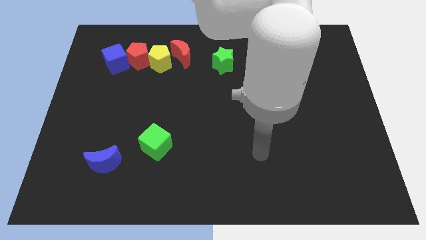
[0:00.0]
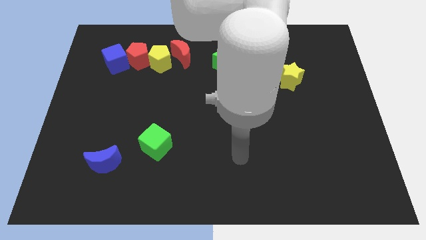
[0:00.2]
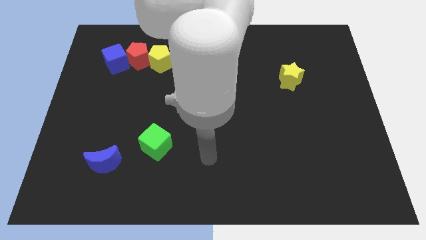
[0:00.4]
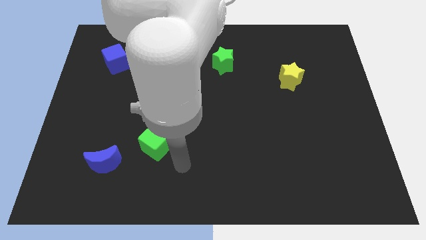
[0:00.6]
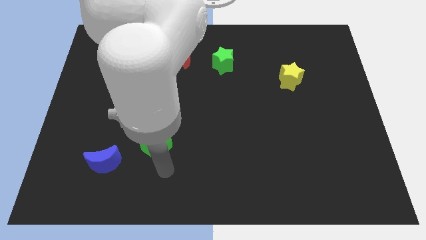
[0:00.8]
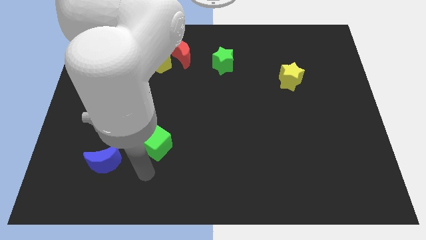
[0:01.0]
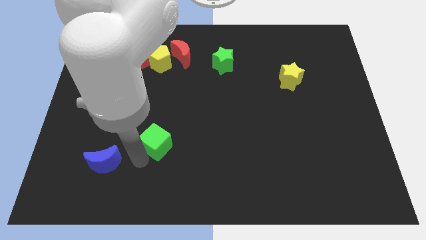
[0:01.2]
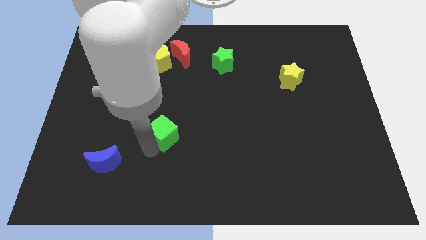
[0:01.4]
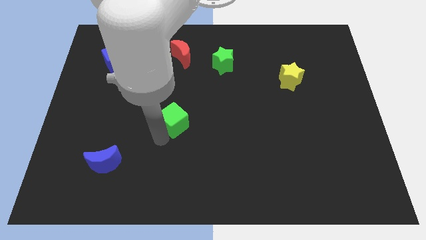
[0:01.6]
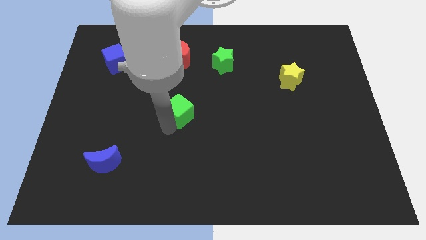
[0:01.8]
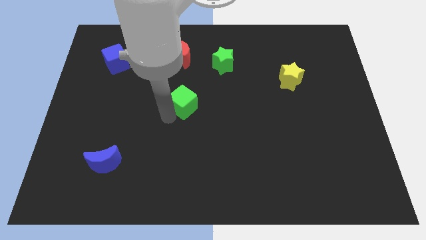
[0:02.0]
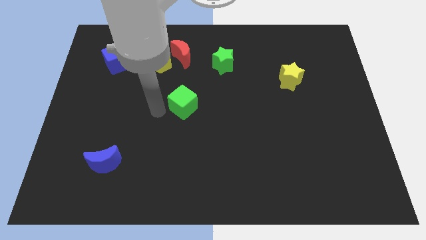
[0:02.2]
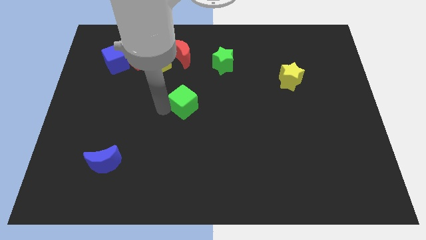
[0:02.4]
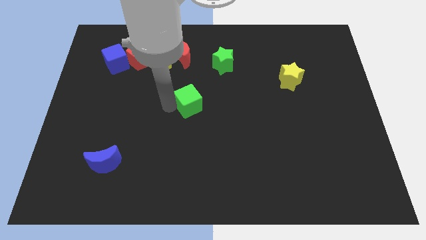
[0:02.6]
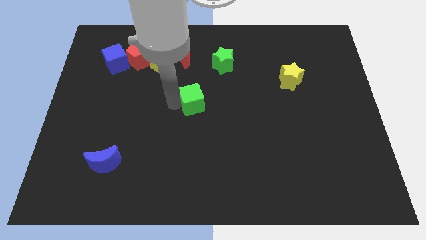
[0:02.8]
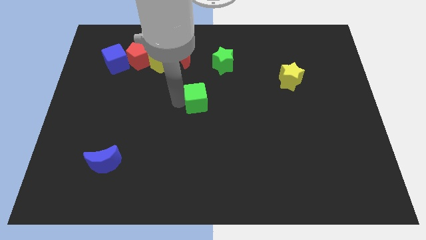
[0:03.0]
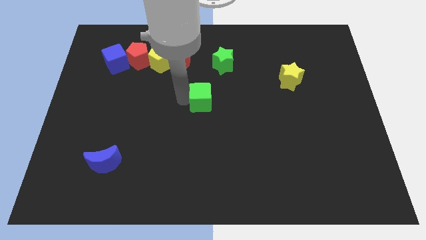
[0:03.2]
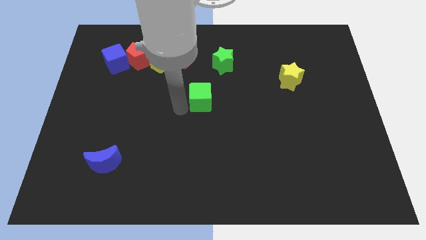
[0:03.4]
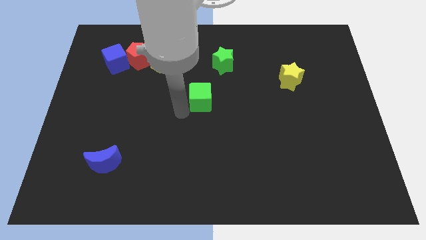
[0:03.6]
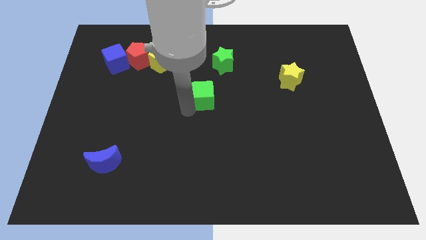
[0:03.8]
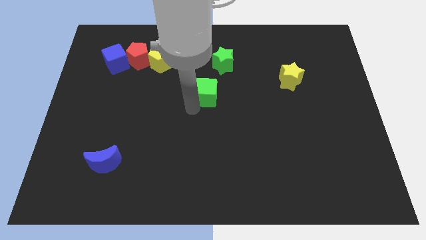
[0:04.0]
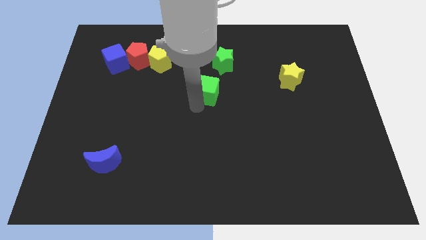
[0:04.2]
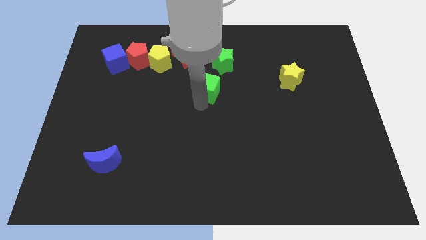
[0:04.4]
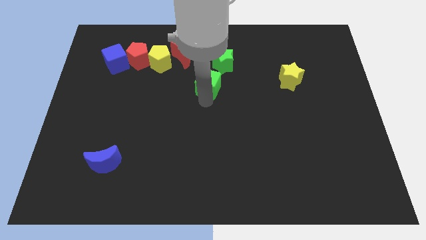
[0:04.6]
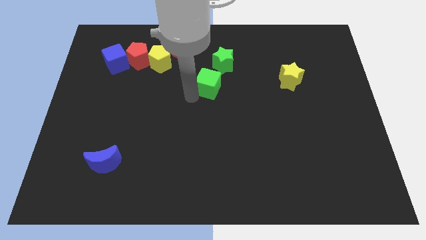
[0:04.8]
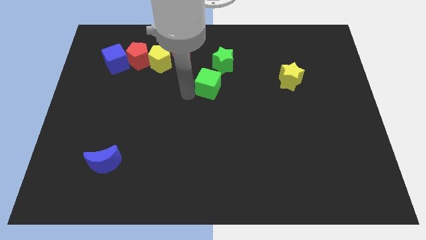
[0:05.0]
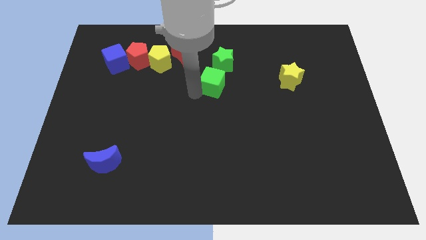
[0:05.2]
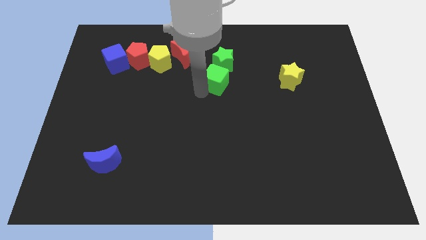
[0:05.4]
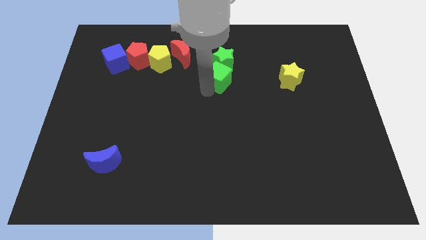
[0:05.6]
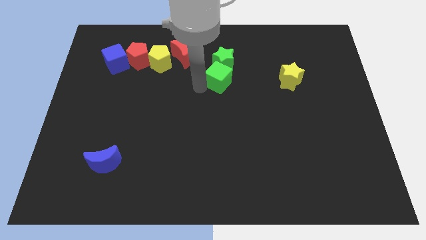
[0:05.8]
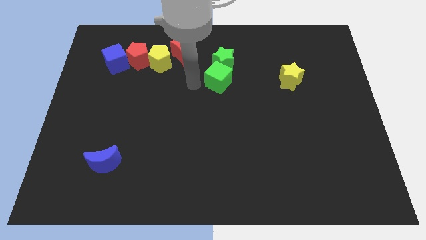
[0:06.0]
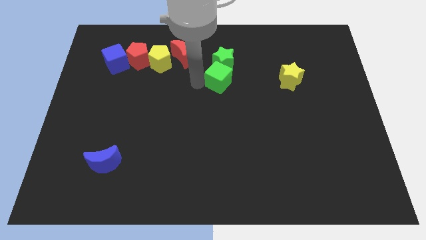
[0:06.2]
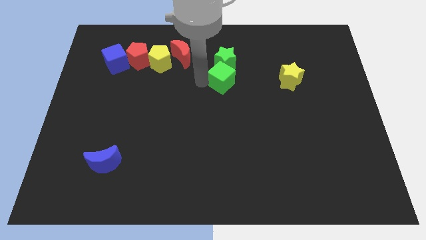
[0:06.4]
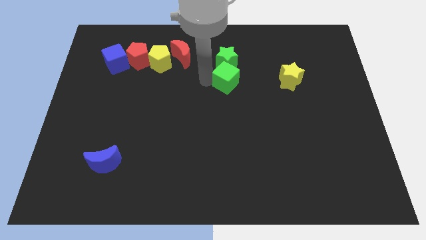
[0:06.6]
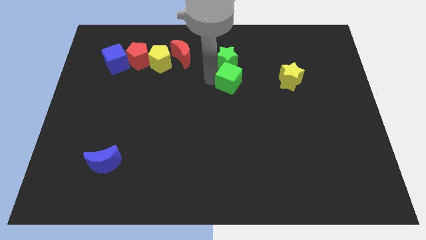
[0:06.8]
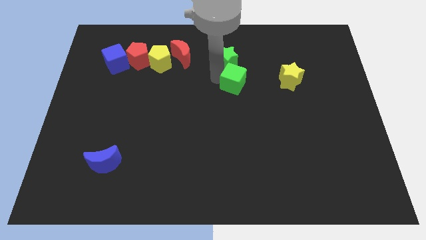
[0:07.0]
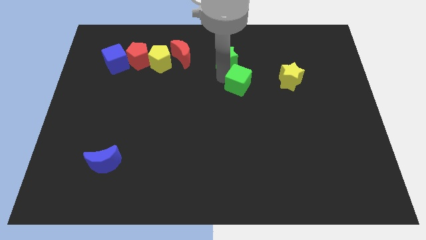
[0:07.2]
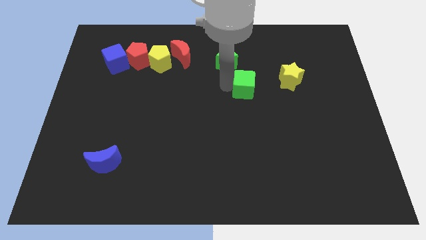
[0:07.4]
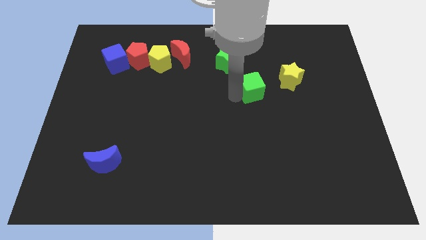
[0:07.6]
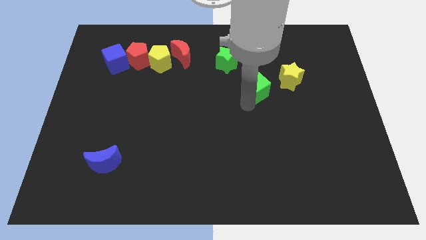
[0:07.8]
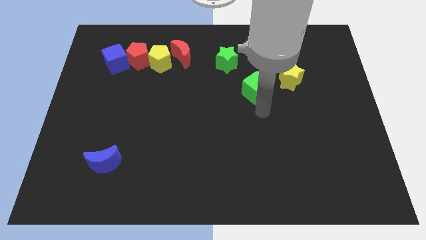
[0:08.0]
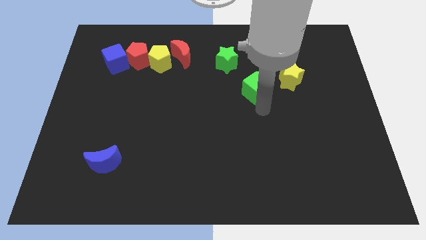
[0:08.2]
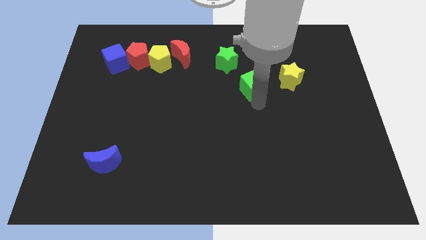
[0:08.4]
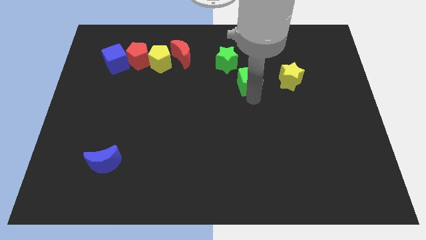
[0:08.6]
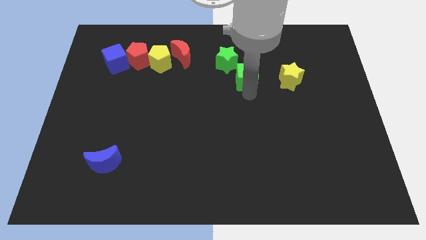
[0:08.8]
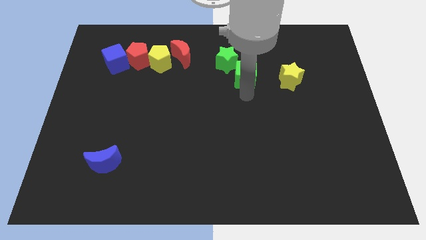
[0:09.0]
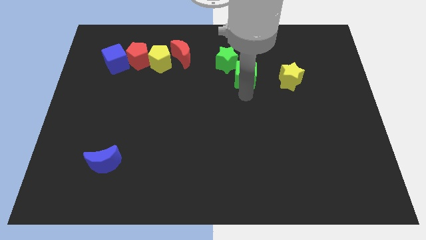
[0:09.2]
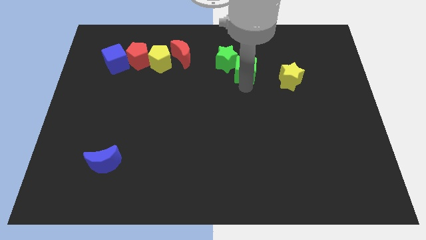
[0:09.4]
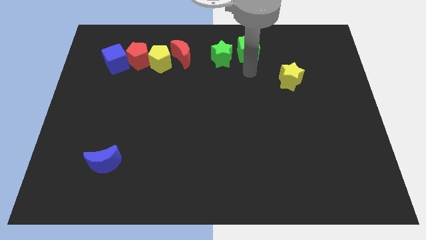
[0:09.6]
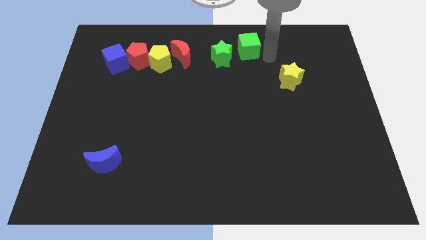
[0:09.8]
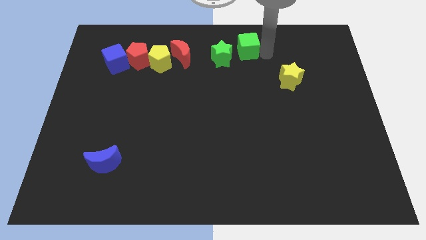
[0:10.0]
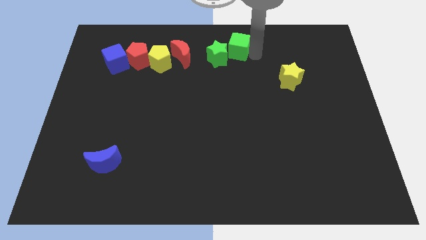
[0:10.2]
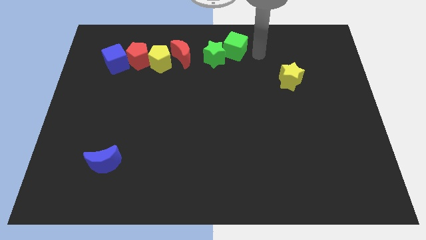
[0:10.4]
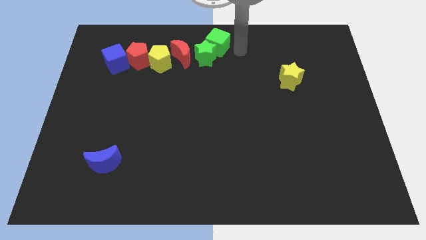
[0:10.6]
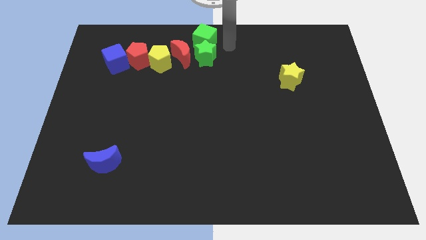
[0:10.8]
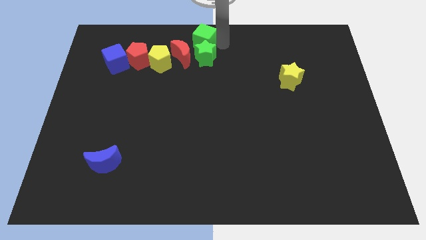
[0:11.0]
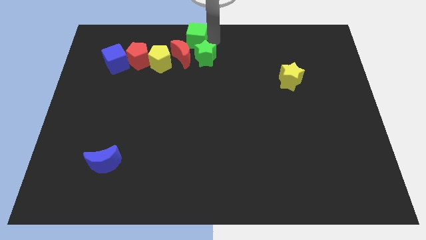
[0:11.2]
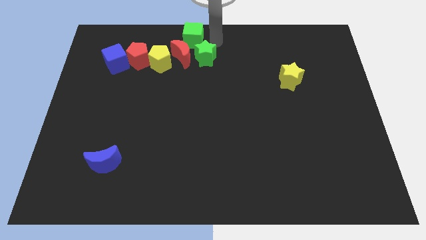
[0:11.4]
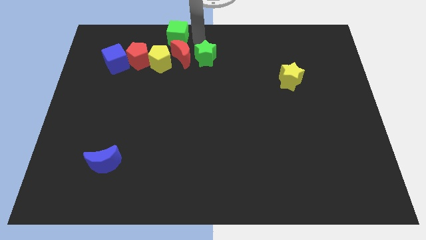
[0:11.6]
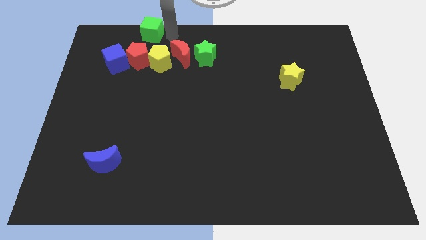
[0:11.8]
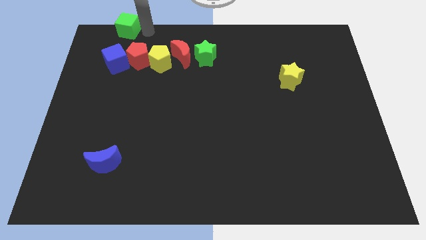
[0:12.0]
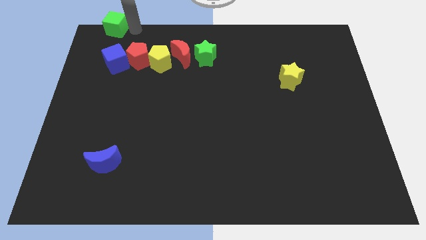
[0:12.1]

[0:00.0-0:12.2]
put the green cube to the top left of the board
